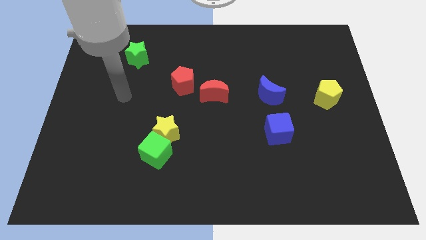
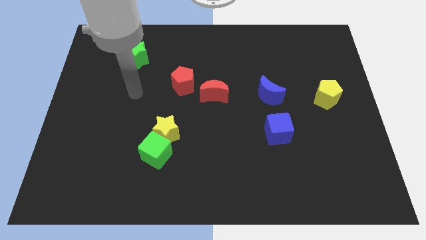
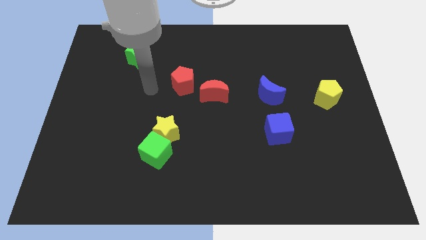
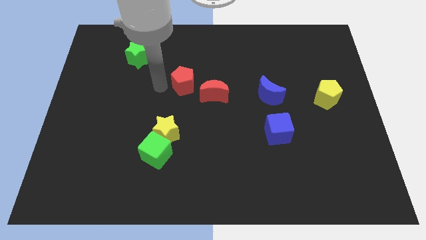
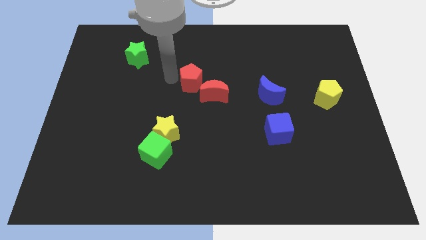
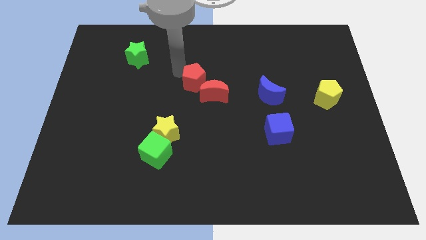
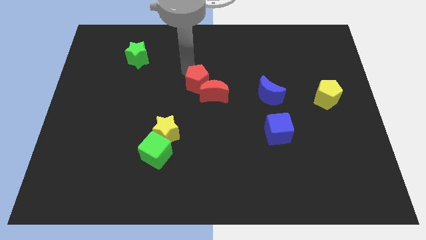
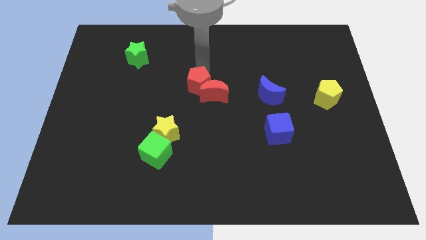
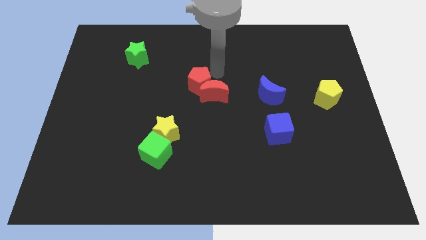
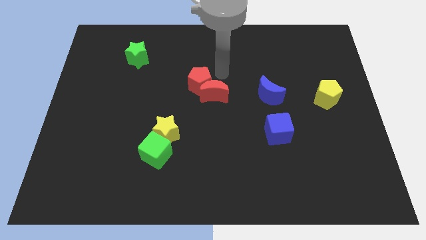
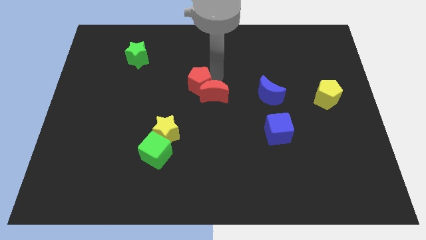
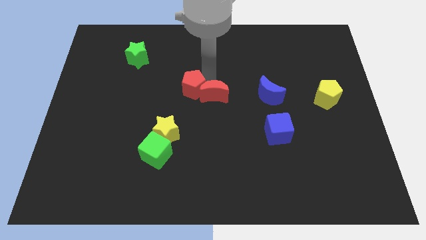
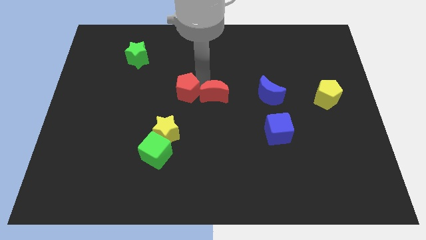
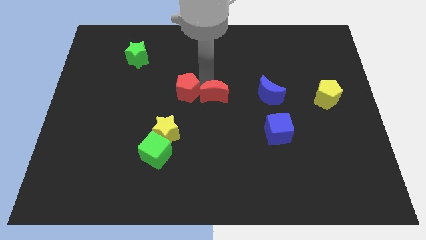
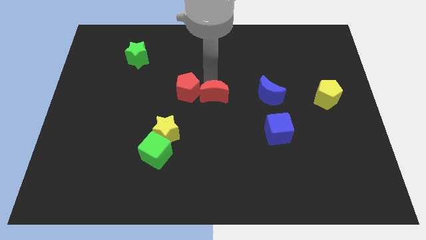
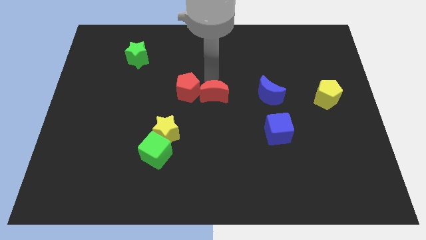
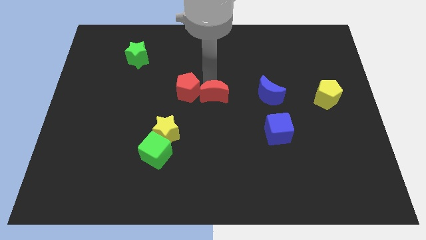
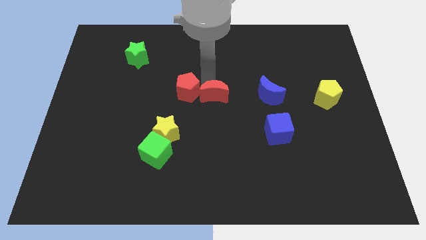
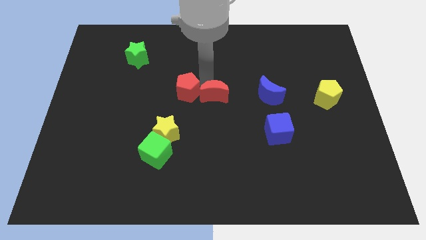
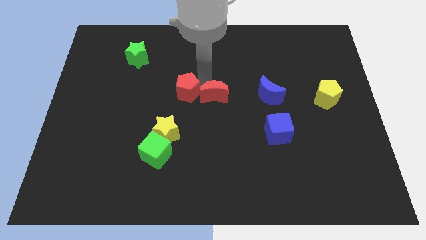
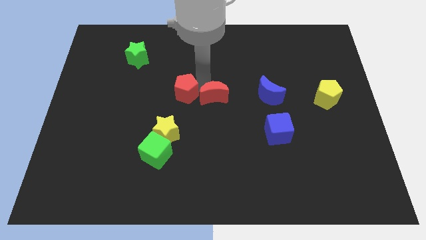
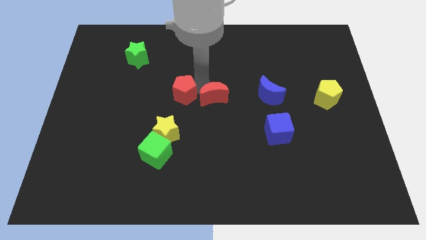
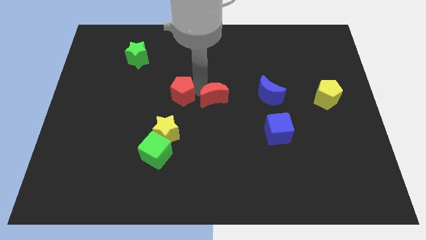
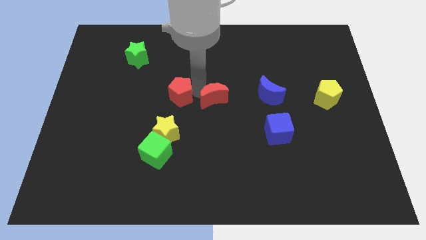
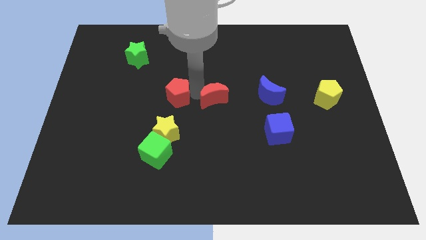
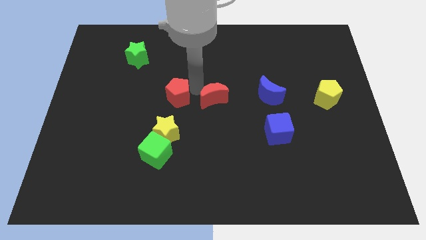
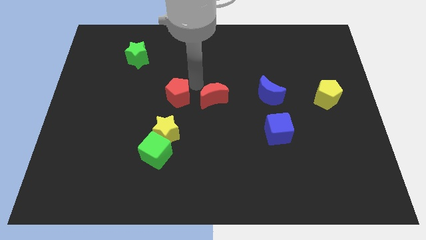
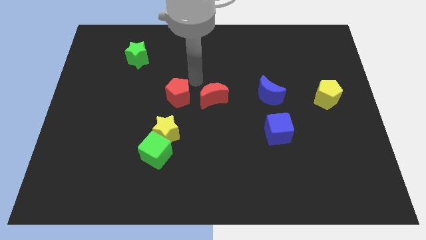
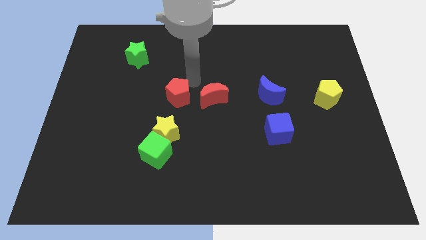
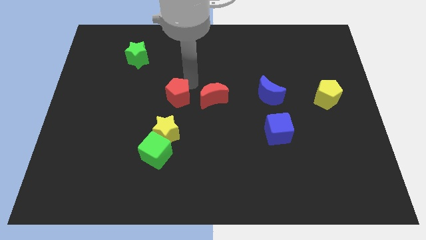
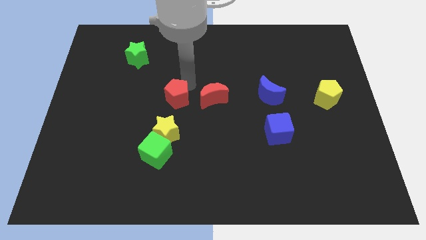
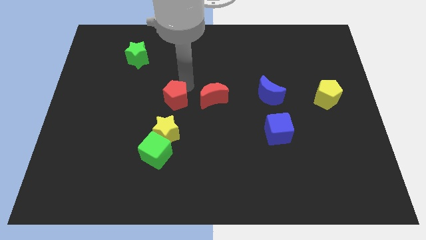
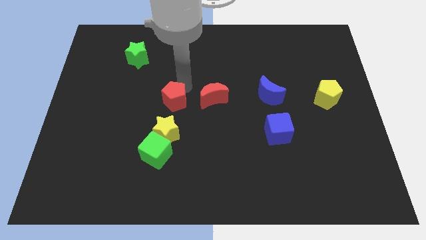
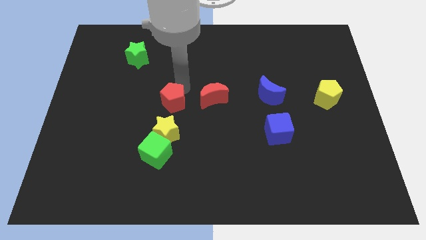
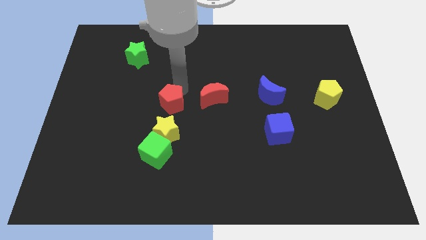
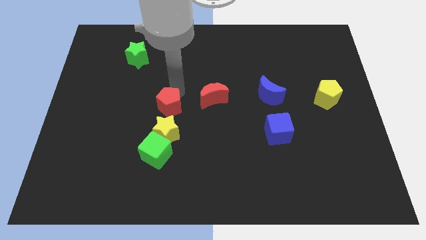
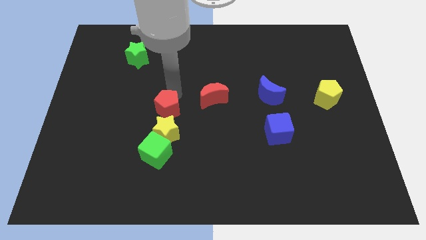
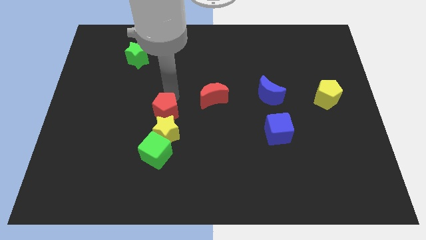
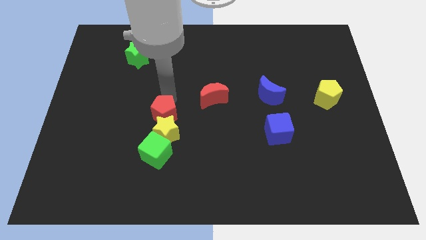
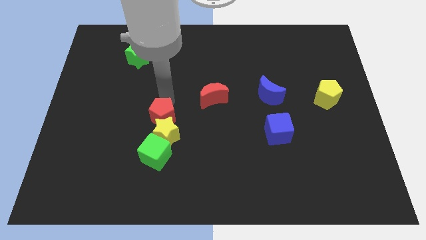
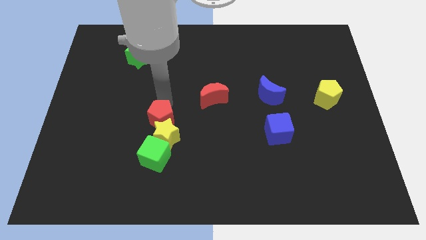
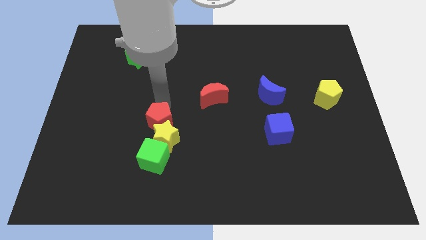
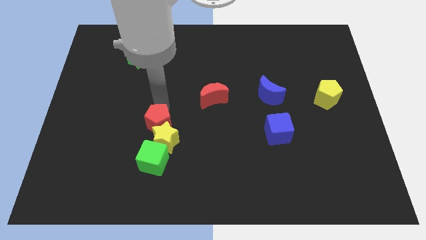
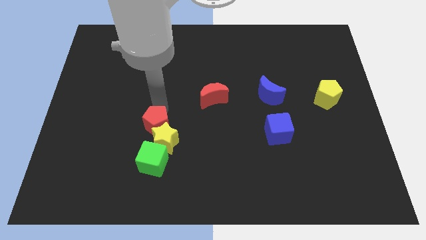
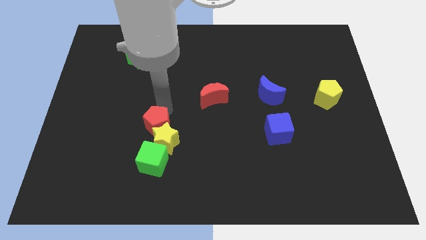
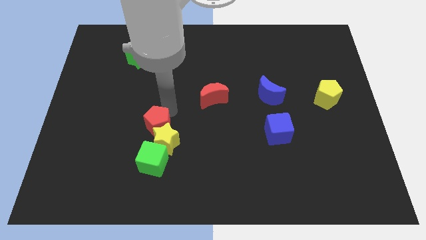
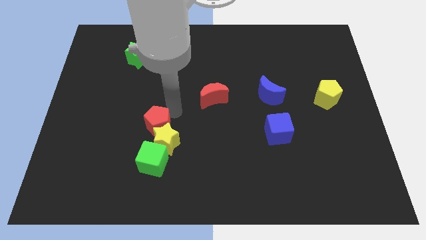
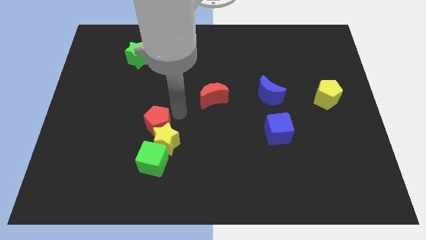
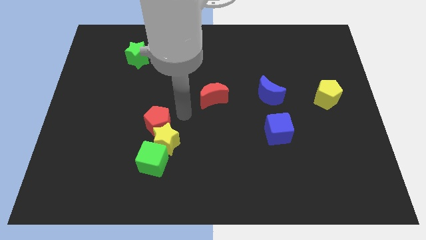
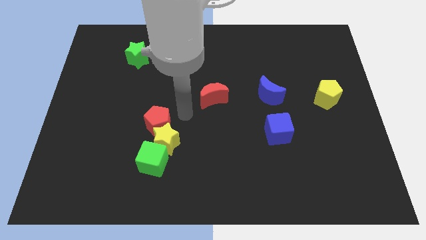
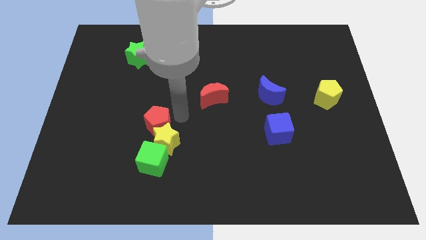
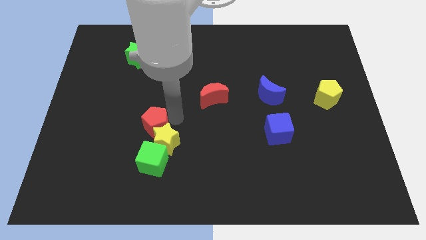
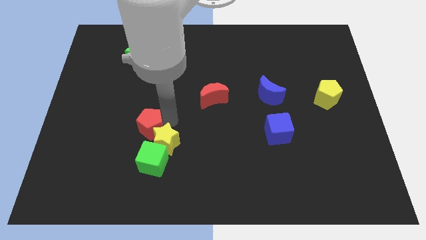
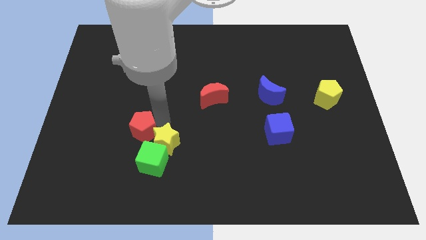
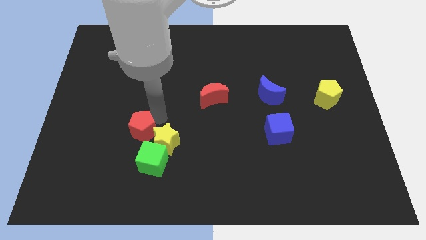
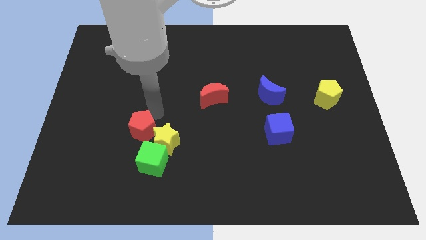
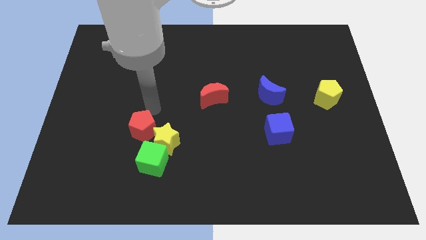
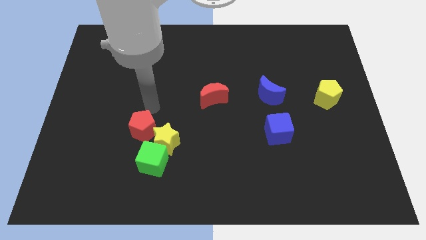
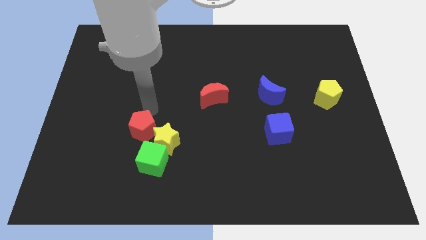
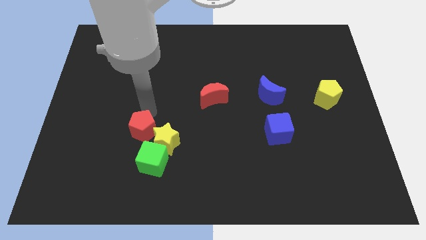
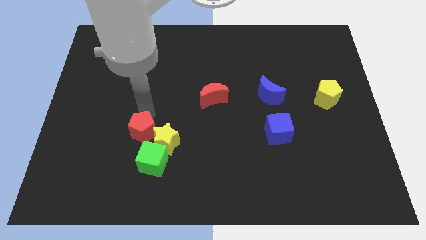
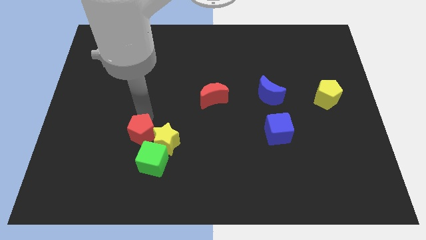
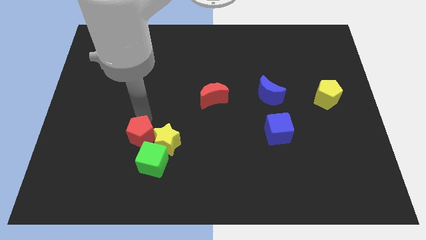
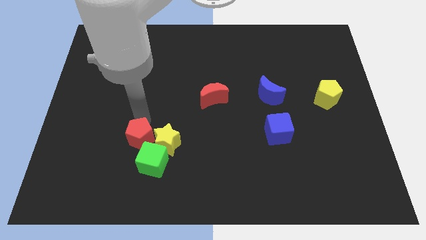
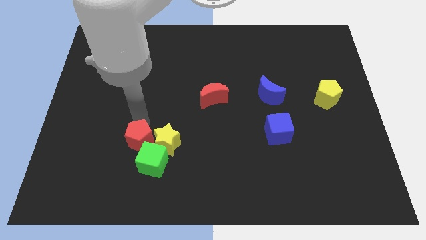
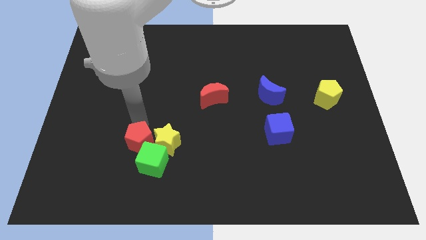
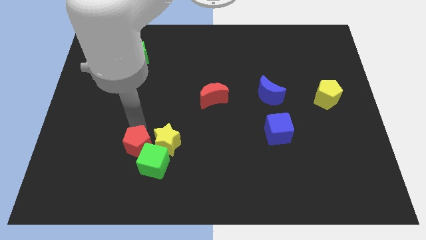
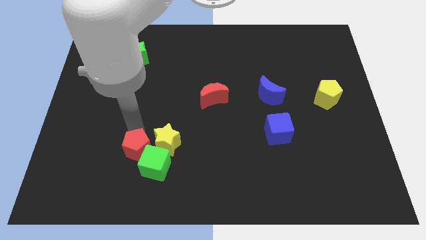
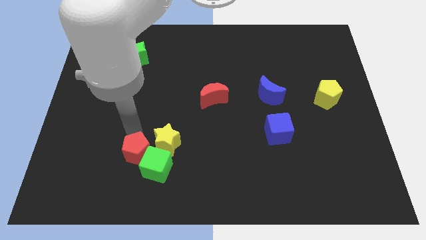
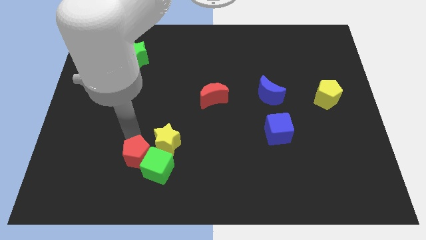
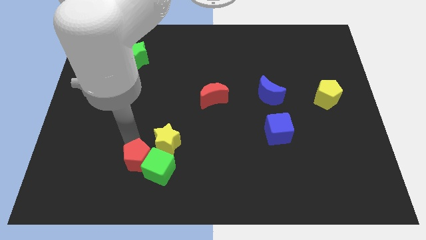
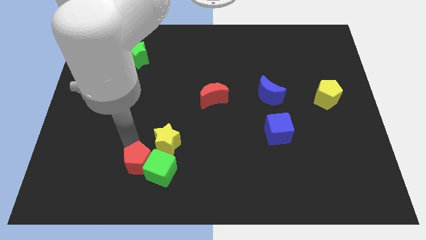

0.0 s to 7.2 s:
put the red pentagon to the bottom left of the green cube
